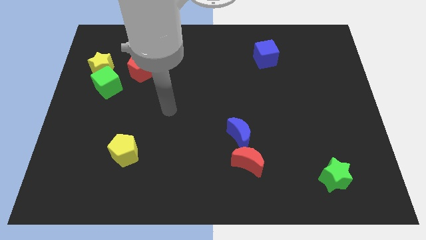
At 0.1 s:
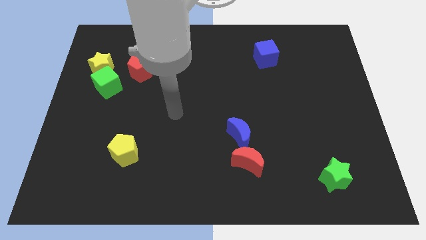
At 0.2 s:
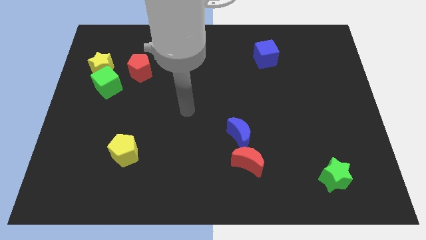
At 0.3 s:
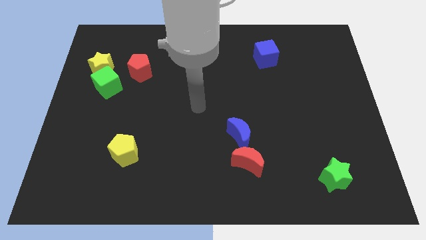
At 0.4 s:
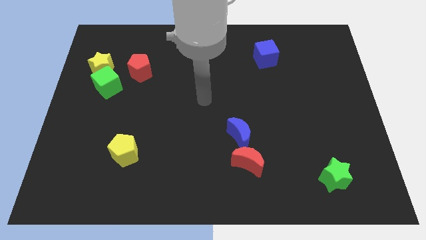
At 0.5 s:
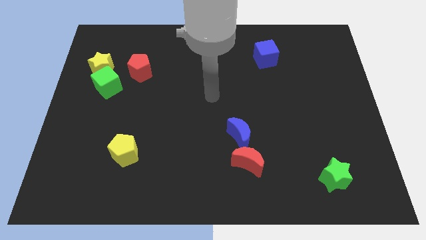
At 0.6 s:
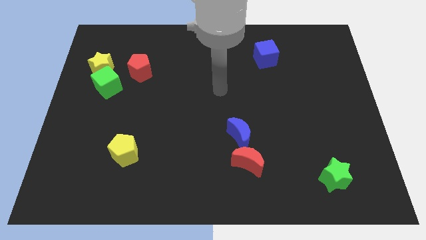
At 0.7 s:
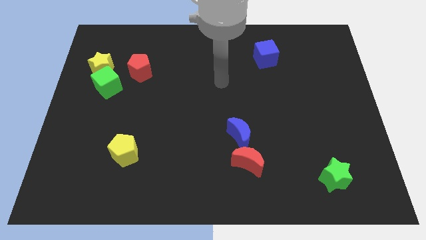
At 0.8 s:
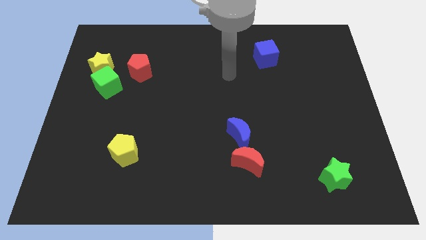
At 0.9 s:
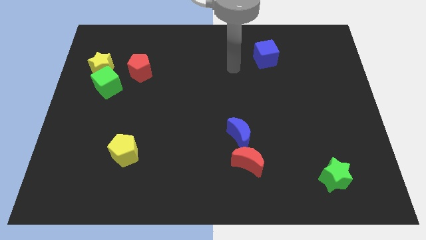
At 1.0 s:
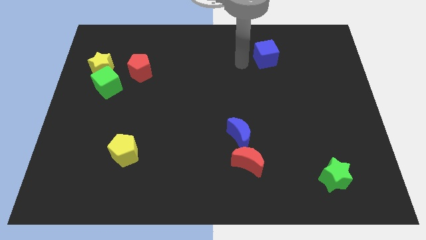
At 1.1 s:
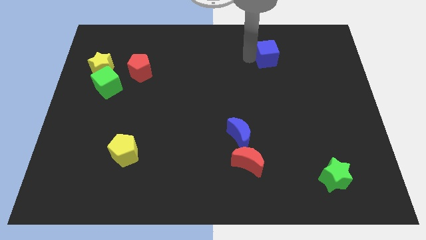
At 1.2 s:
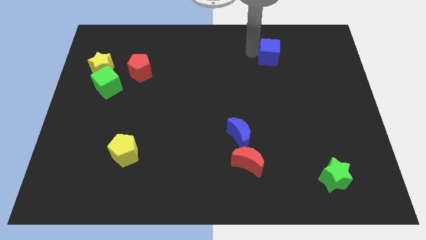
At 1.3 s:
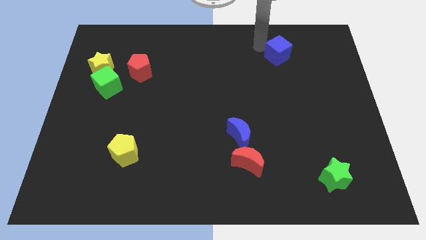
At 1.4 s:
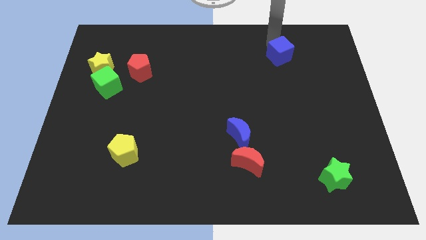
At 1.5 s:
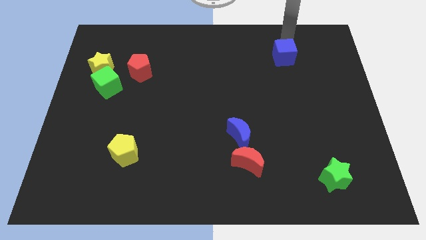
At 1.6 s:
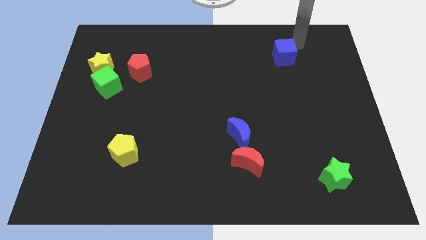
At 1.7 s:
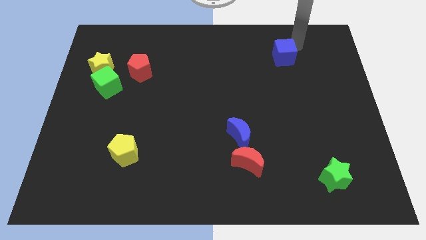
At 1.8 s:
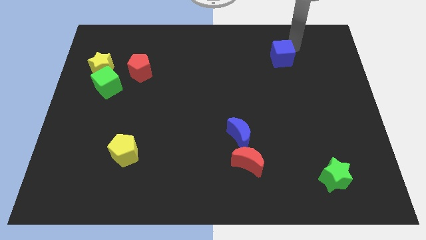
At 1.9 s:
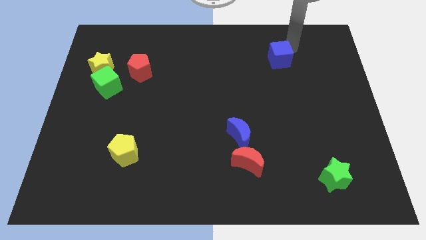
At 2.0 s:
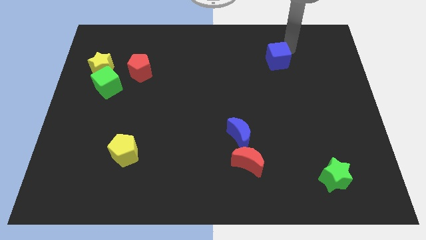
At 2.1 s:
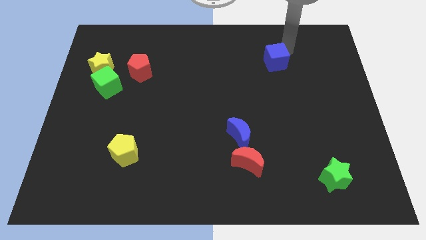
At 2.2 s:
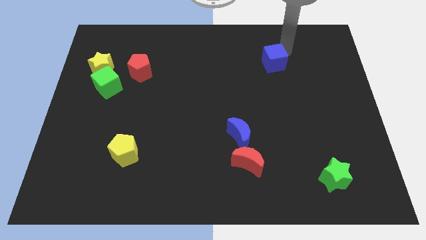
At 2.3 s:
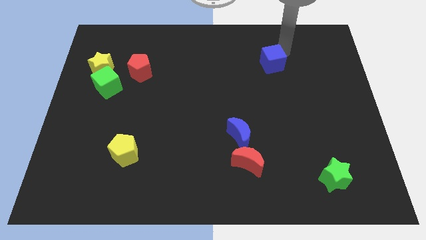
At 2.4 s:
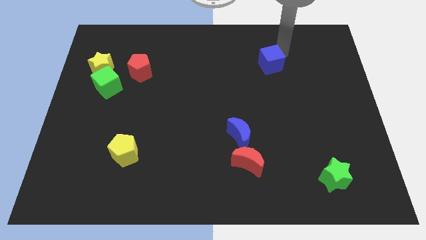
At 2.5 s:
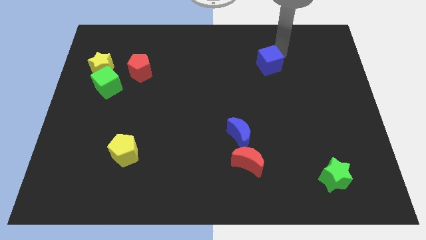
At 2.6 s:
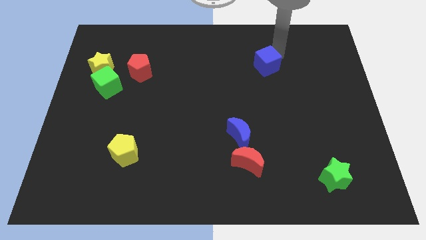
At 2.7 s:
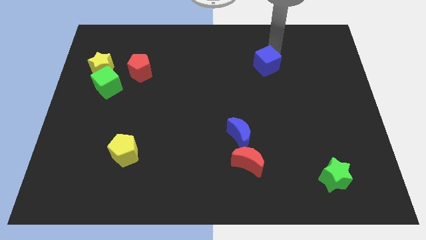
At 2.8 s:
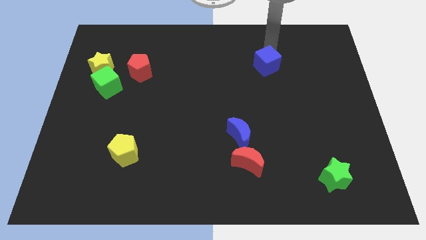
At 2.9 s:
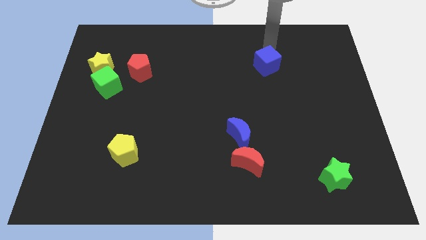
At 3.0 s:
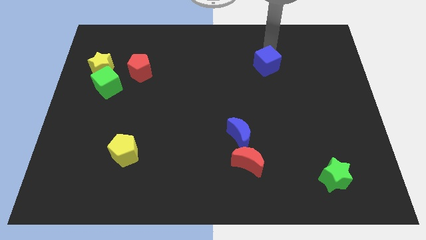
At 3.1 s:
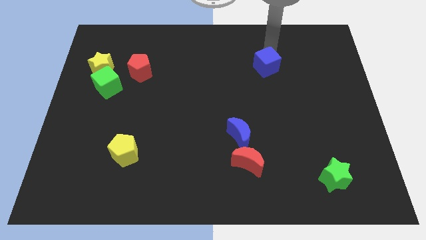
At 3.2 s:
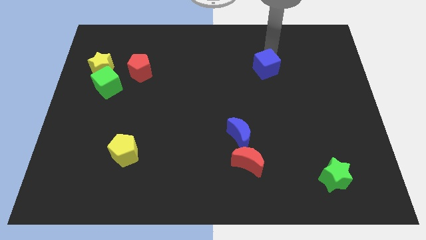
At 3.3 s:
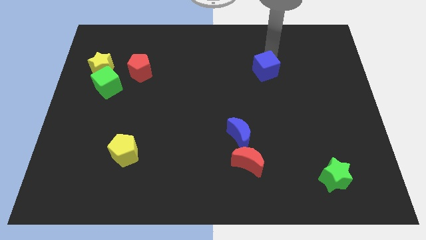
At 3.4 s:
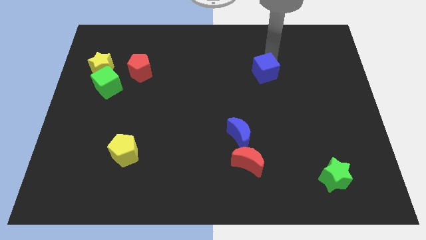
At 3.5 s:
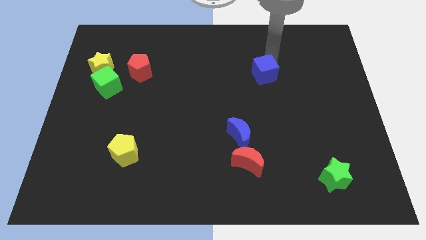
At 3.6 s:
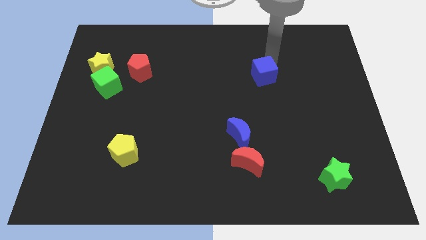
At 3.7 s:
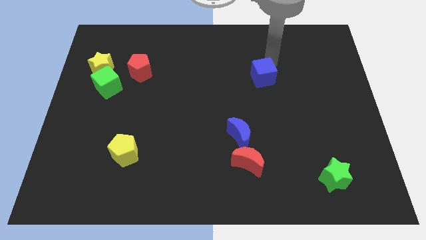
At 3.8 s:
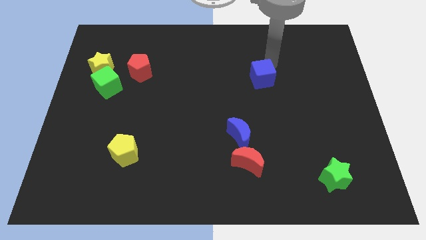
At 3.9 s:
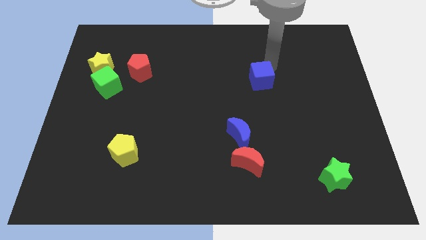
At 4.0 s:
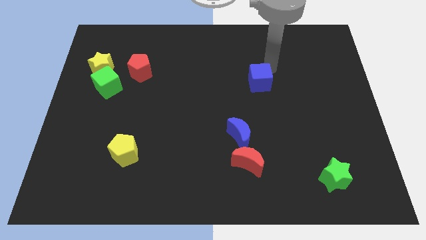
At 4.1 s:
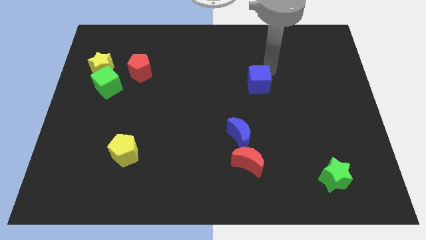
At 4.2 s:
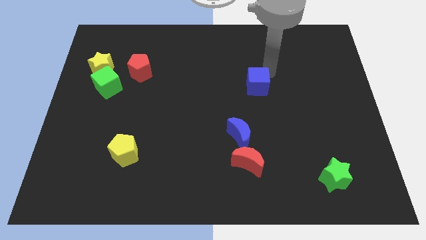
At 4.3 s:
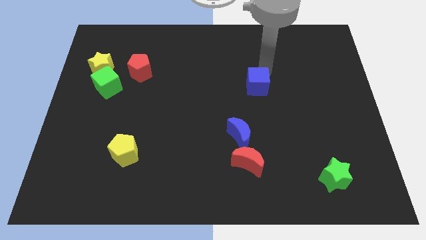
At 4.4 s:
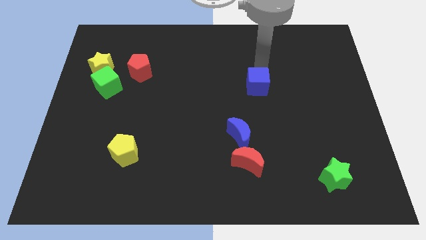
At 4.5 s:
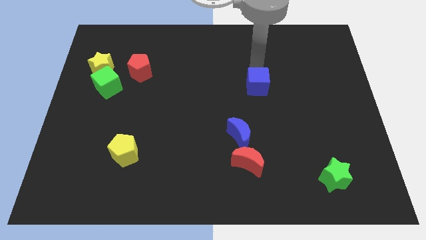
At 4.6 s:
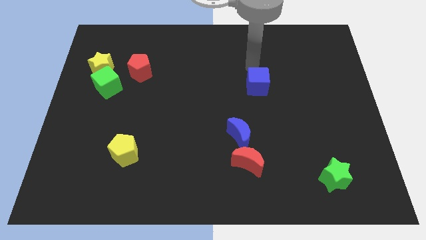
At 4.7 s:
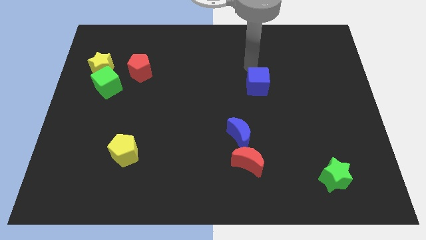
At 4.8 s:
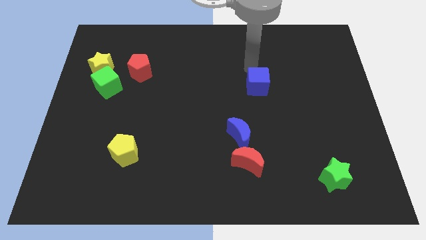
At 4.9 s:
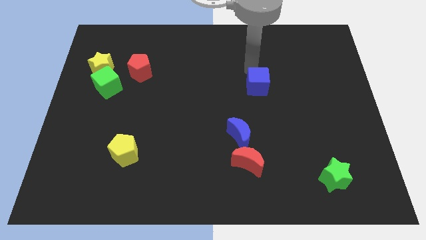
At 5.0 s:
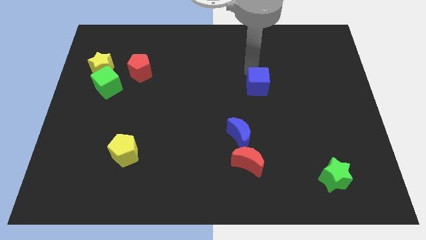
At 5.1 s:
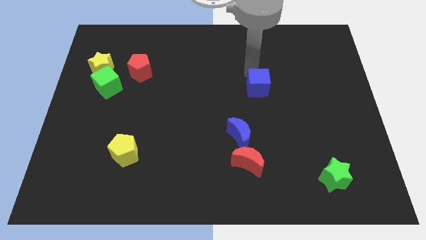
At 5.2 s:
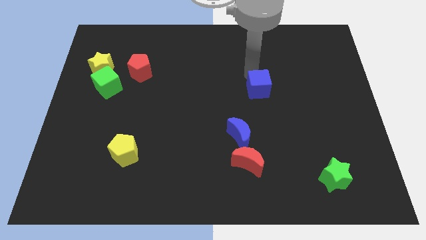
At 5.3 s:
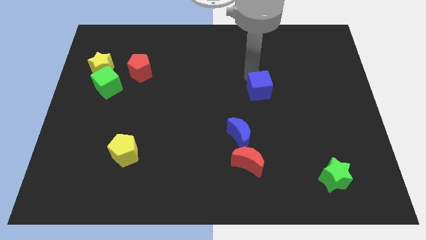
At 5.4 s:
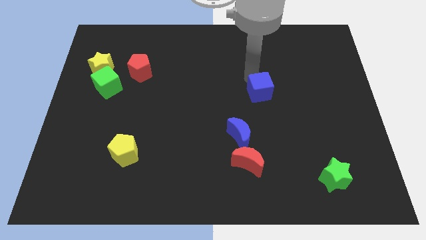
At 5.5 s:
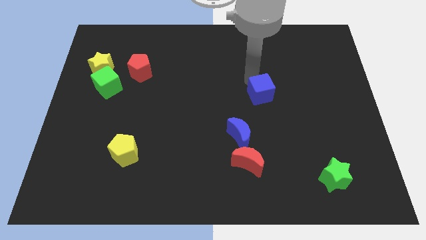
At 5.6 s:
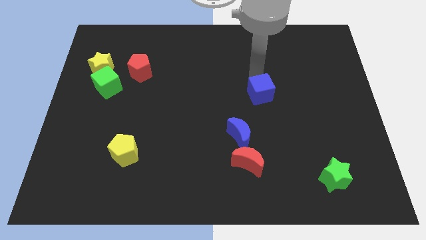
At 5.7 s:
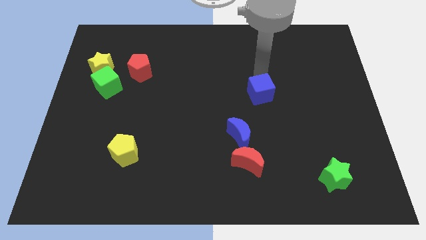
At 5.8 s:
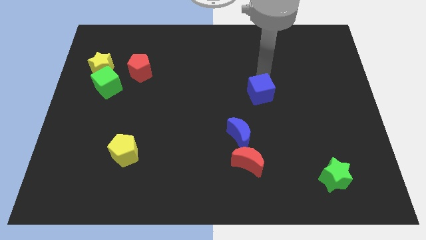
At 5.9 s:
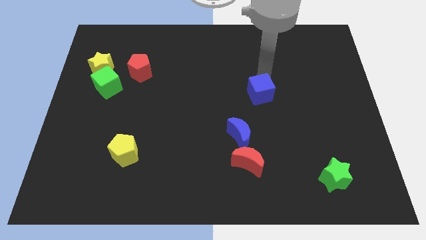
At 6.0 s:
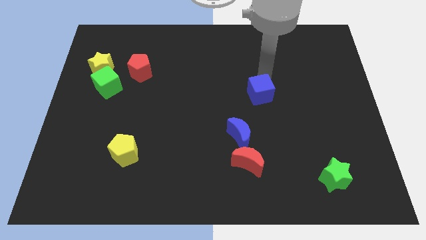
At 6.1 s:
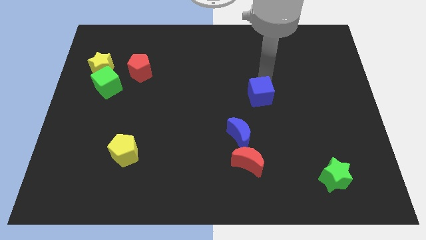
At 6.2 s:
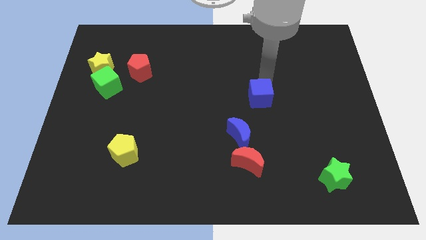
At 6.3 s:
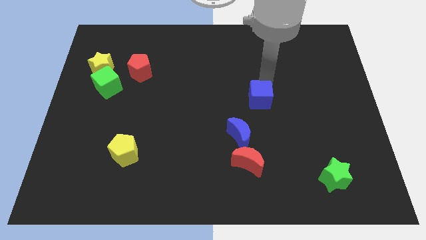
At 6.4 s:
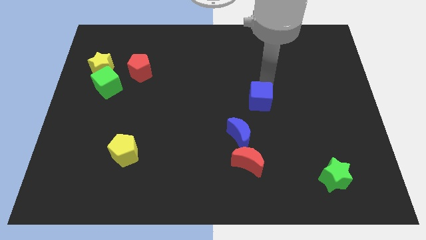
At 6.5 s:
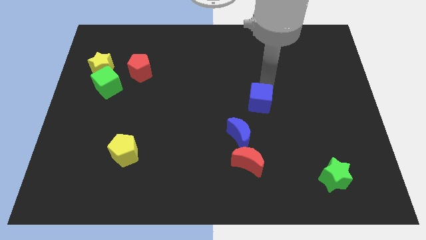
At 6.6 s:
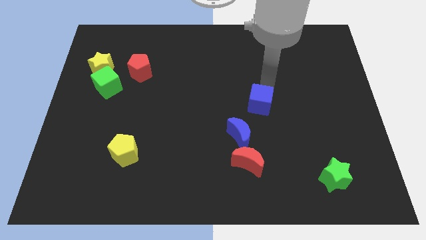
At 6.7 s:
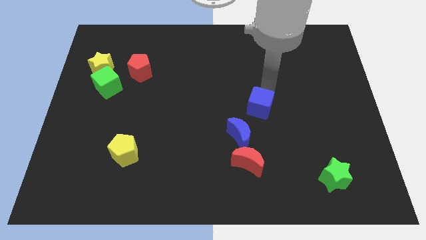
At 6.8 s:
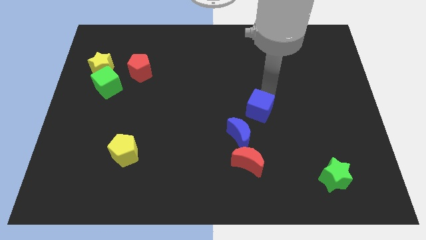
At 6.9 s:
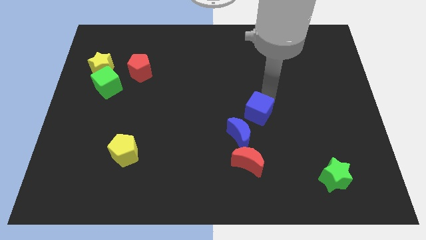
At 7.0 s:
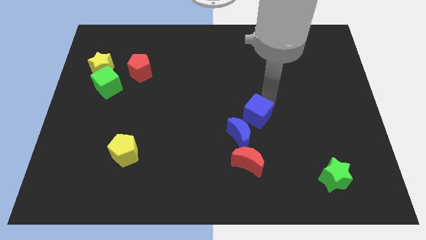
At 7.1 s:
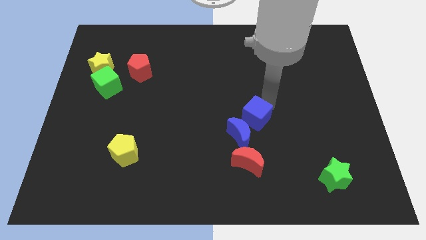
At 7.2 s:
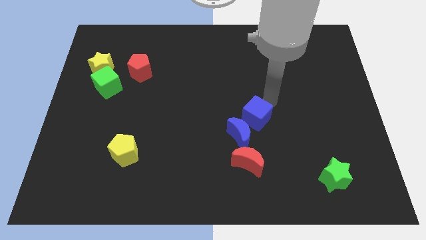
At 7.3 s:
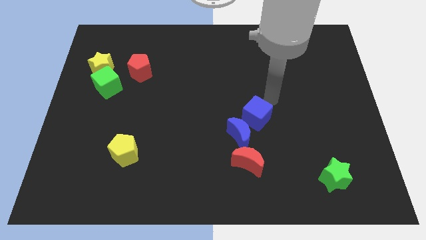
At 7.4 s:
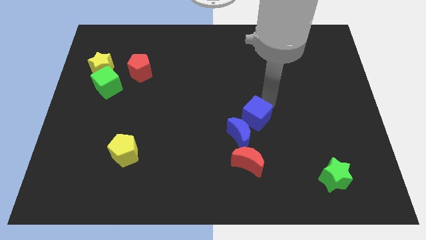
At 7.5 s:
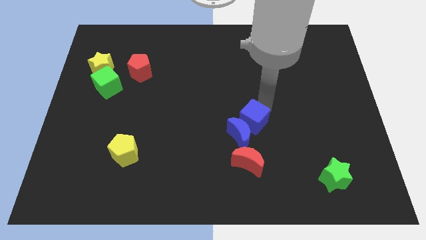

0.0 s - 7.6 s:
put the blue cube towards the blue moon
